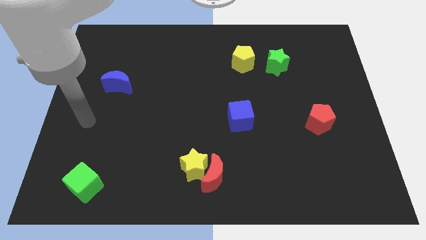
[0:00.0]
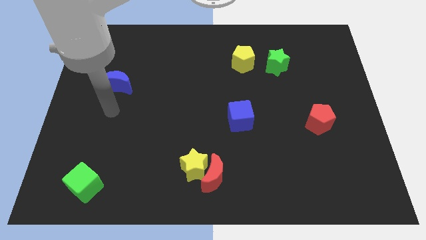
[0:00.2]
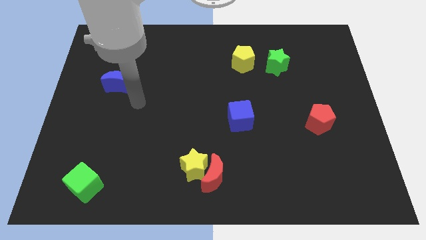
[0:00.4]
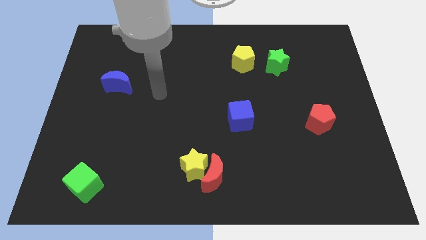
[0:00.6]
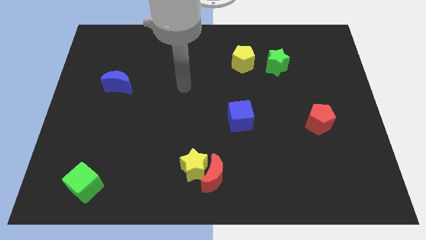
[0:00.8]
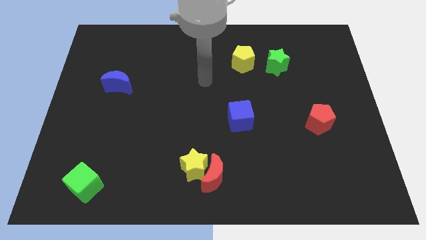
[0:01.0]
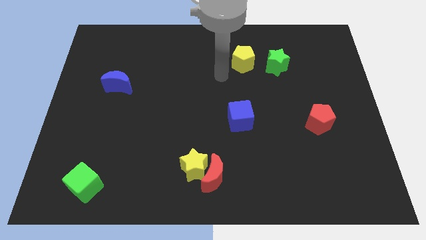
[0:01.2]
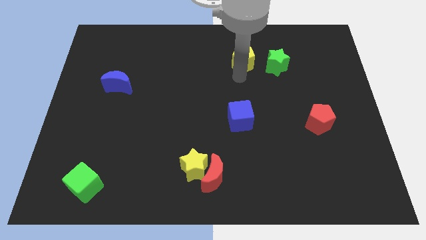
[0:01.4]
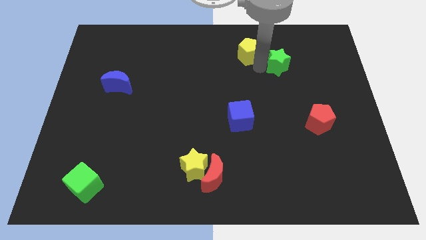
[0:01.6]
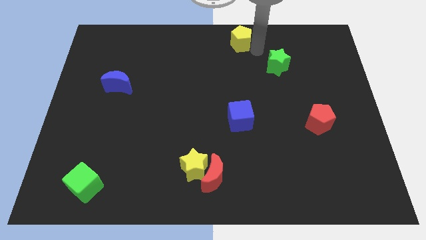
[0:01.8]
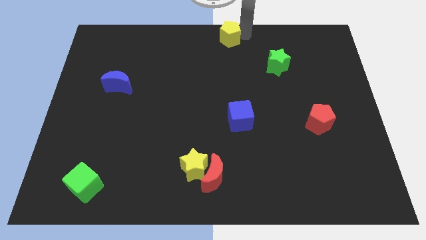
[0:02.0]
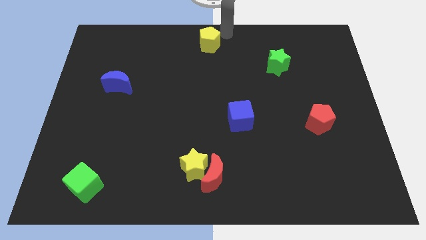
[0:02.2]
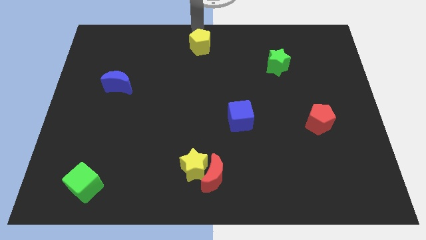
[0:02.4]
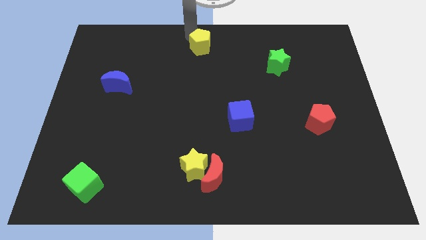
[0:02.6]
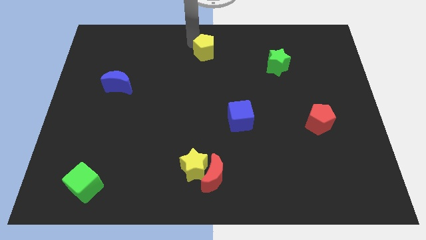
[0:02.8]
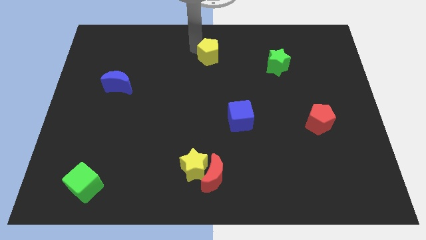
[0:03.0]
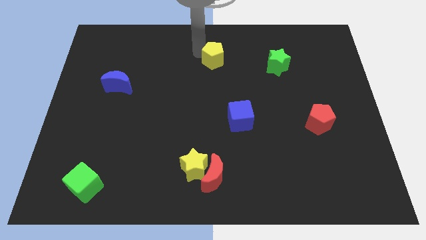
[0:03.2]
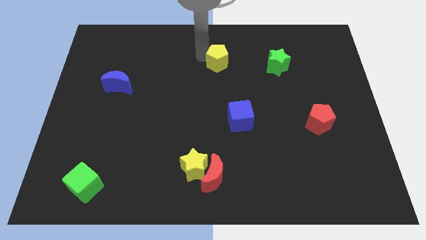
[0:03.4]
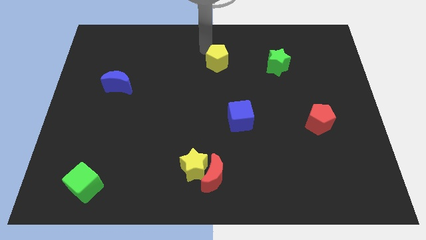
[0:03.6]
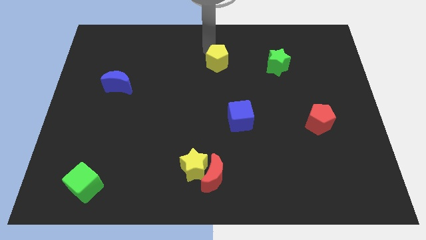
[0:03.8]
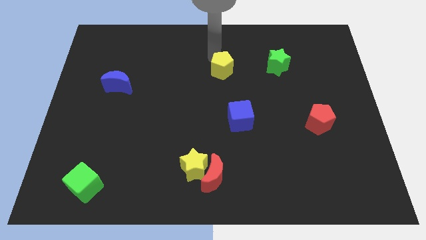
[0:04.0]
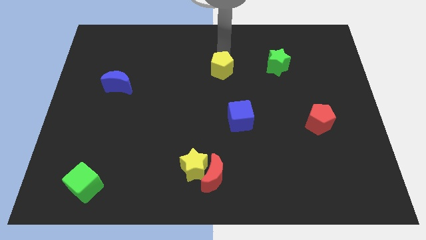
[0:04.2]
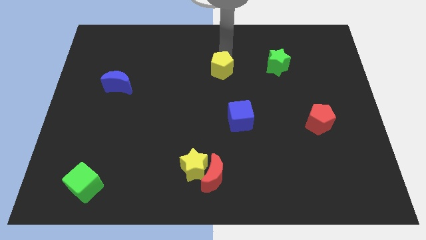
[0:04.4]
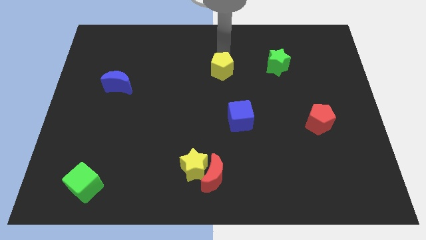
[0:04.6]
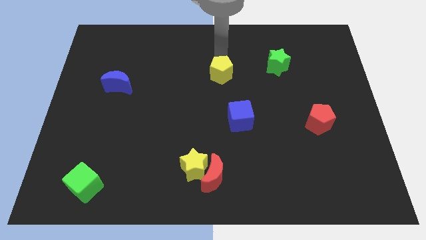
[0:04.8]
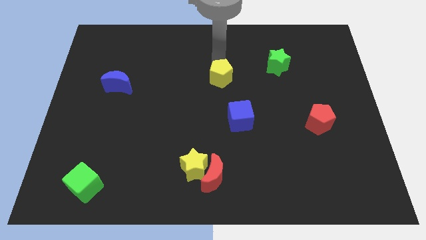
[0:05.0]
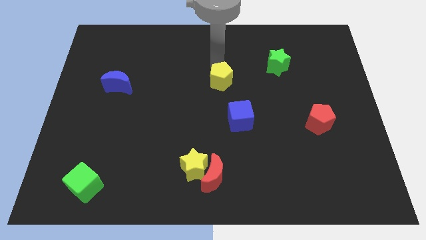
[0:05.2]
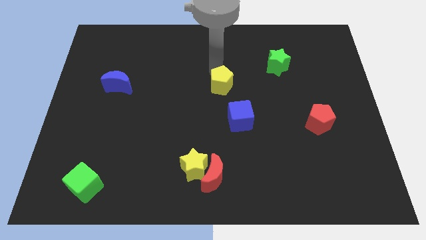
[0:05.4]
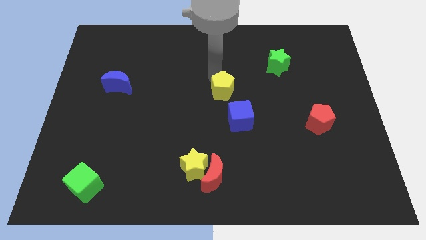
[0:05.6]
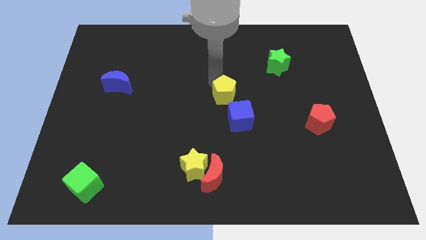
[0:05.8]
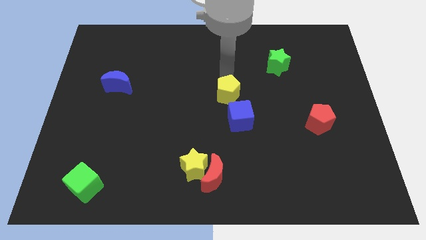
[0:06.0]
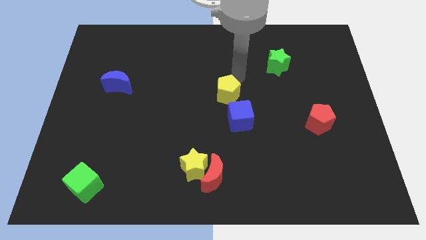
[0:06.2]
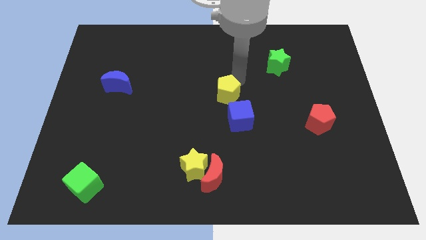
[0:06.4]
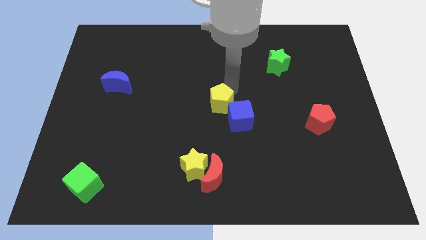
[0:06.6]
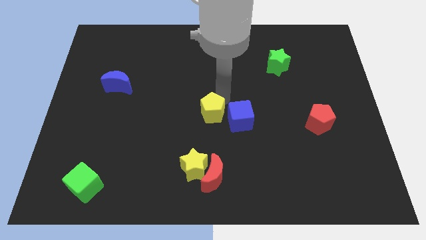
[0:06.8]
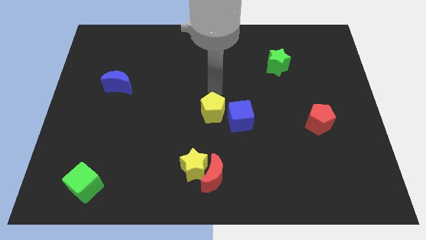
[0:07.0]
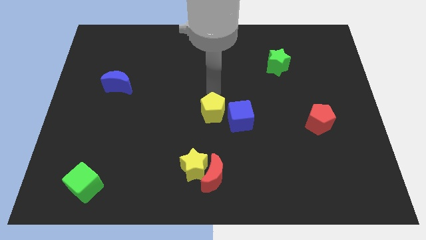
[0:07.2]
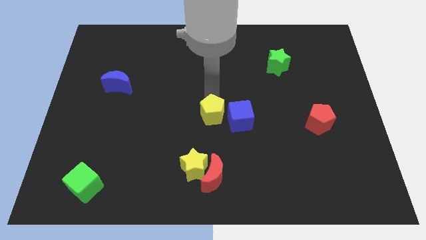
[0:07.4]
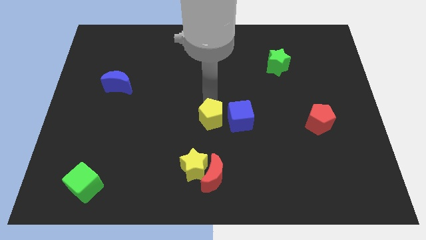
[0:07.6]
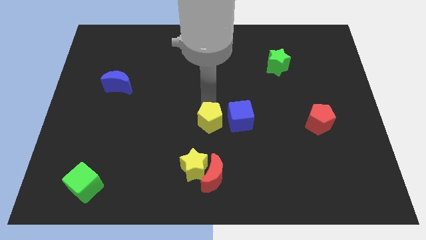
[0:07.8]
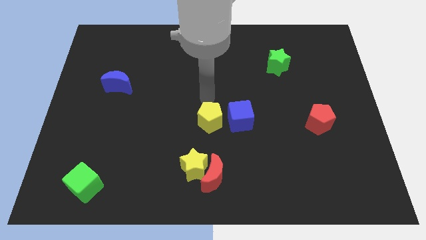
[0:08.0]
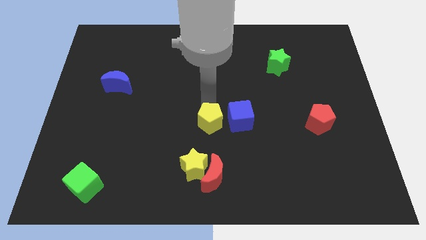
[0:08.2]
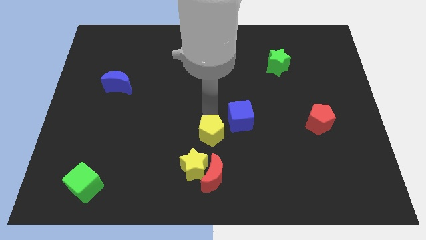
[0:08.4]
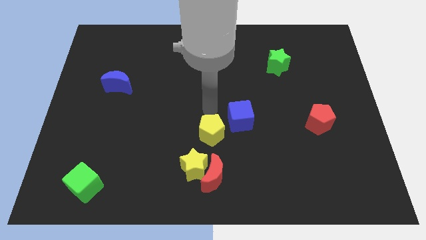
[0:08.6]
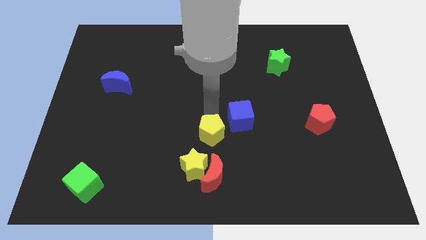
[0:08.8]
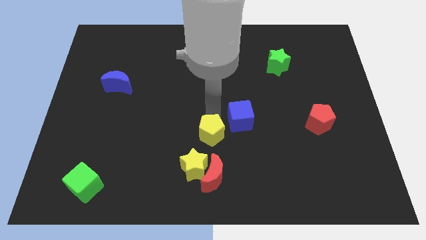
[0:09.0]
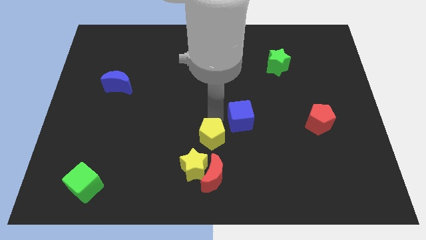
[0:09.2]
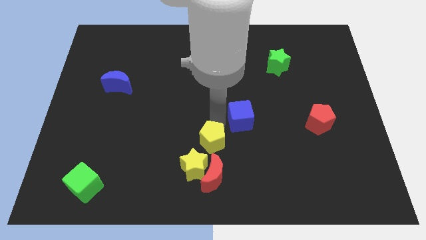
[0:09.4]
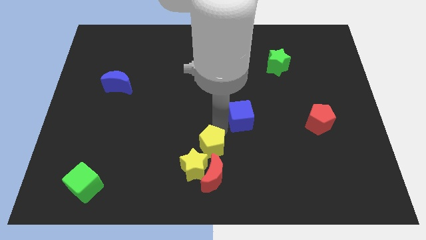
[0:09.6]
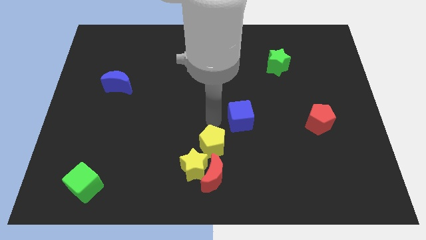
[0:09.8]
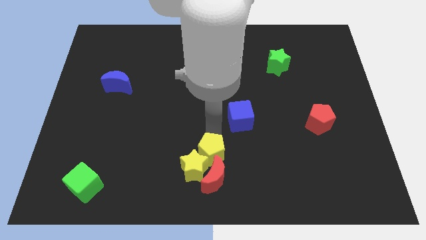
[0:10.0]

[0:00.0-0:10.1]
push the yellow pentagon close to the red moon

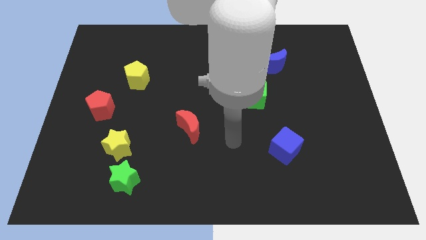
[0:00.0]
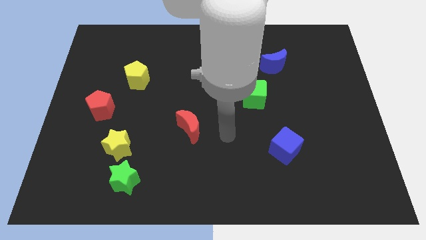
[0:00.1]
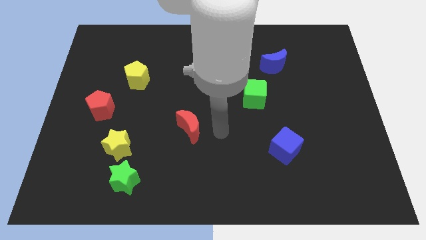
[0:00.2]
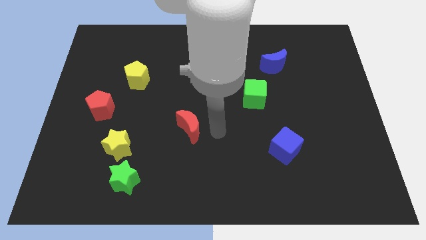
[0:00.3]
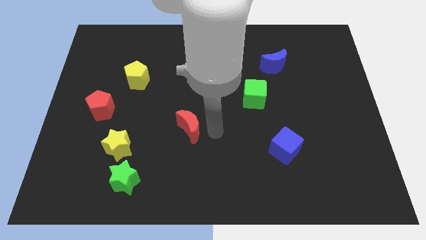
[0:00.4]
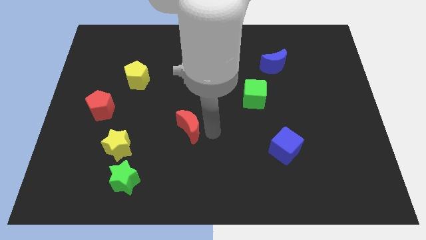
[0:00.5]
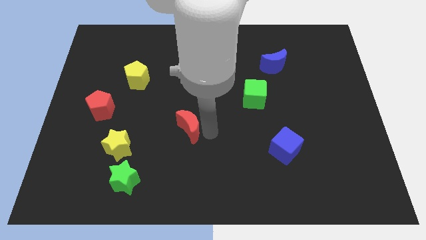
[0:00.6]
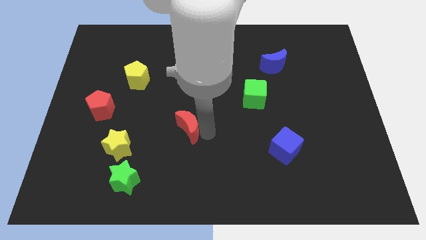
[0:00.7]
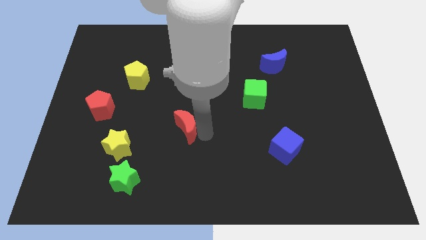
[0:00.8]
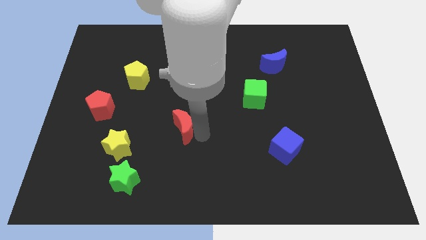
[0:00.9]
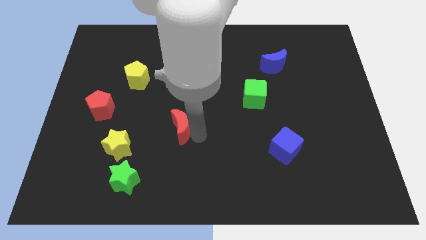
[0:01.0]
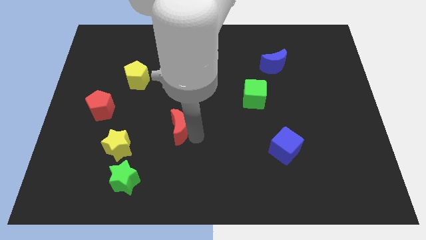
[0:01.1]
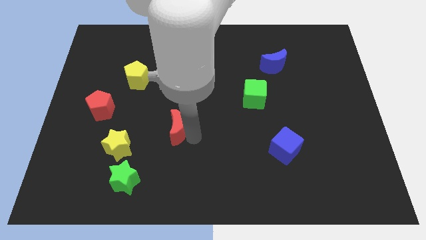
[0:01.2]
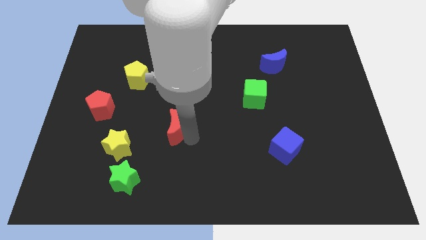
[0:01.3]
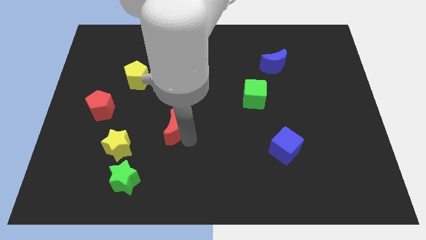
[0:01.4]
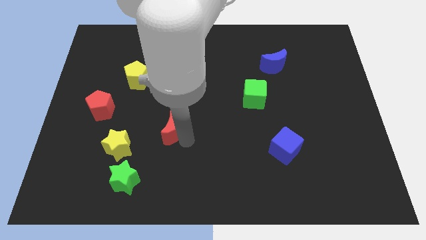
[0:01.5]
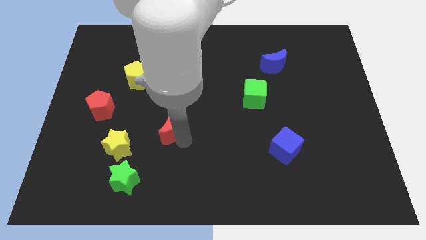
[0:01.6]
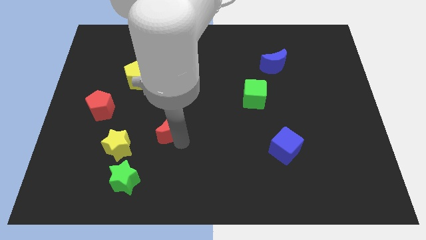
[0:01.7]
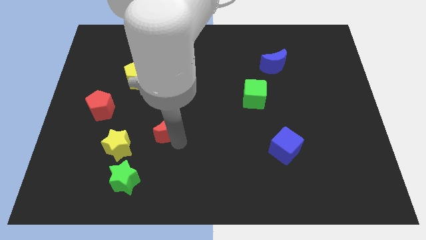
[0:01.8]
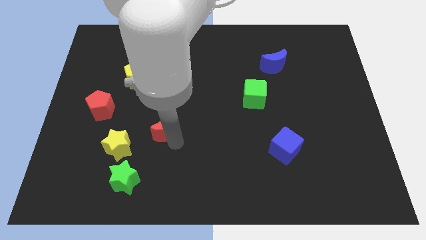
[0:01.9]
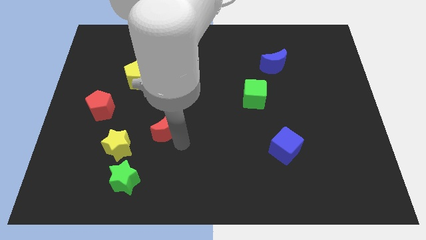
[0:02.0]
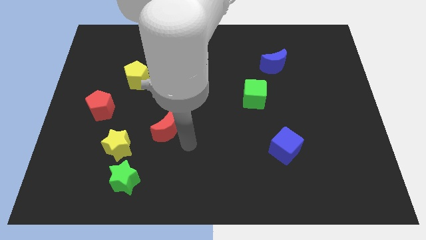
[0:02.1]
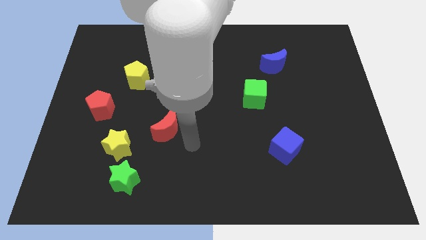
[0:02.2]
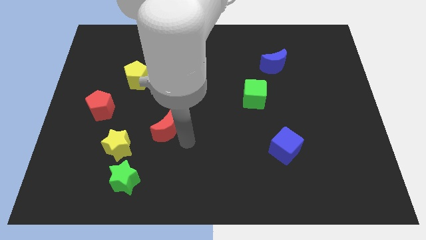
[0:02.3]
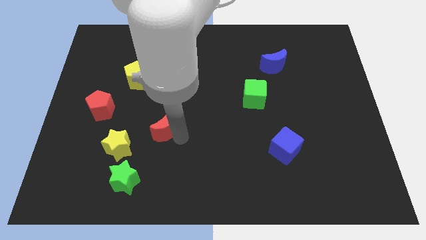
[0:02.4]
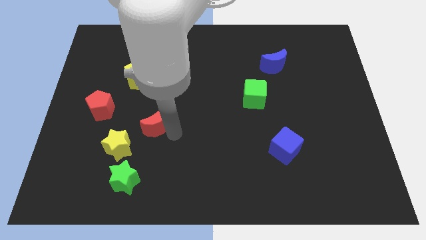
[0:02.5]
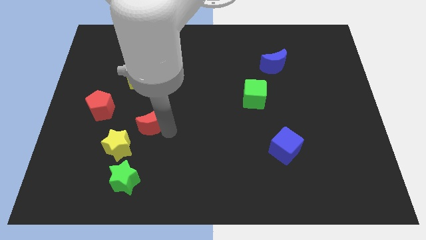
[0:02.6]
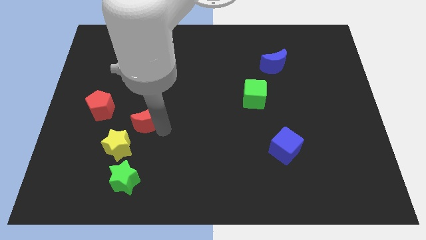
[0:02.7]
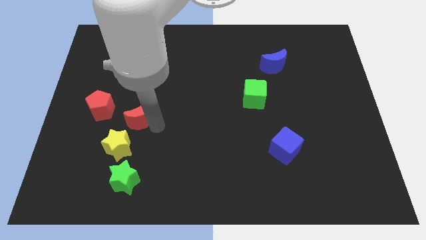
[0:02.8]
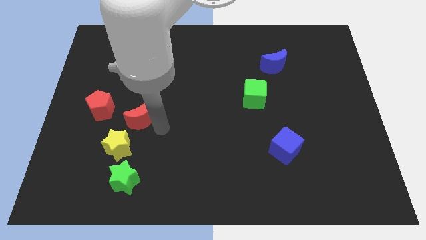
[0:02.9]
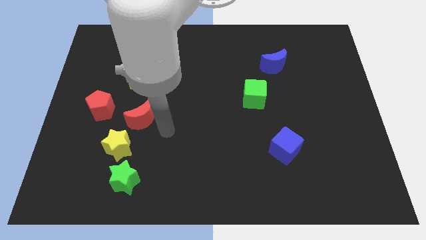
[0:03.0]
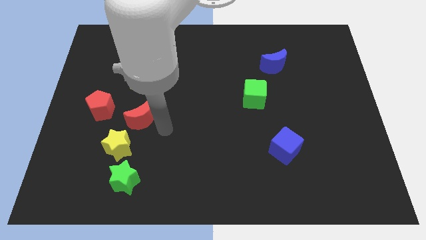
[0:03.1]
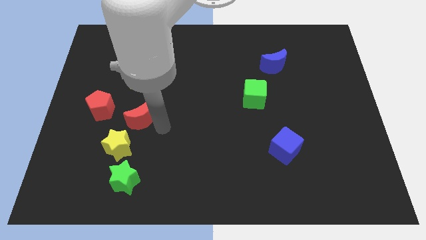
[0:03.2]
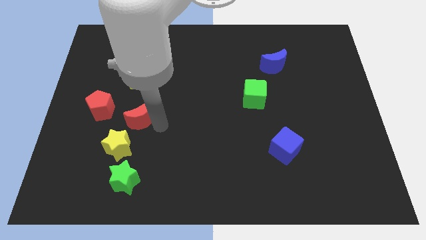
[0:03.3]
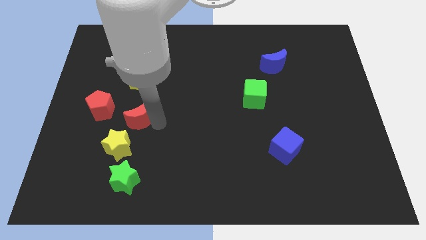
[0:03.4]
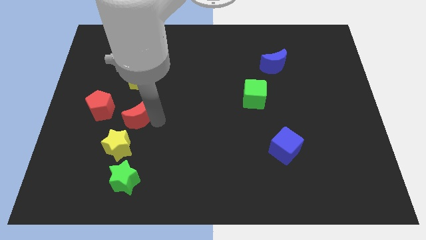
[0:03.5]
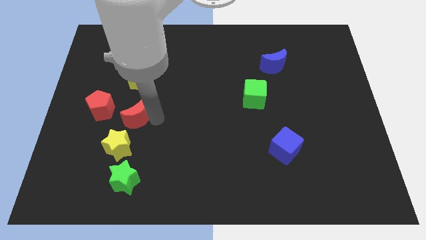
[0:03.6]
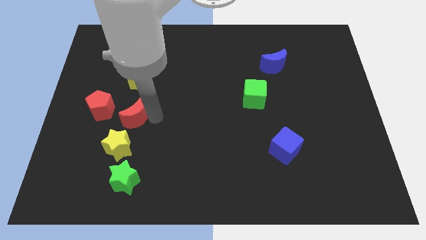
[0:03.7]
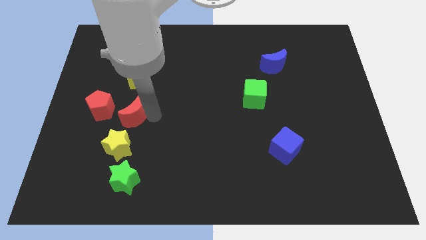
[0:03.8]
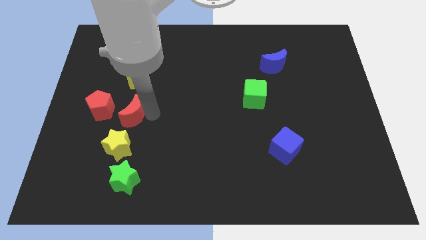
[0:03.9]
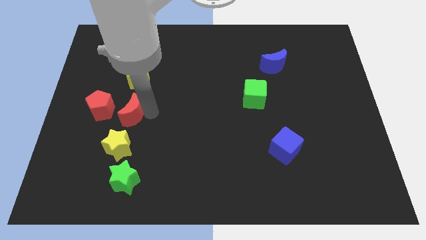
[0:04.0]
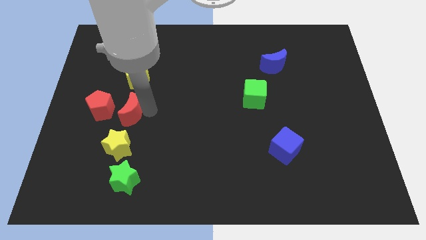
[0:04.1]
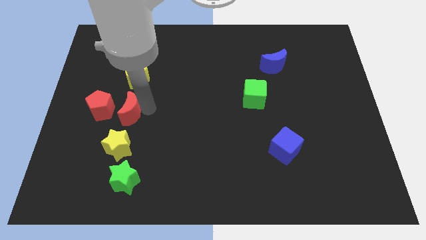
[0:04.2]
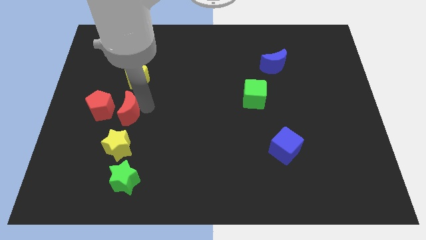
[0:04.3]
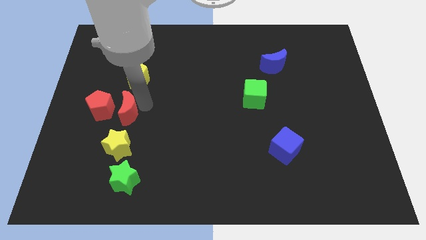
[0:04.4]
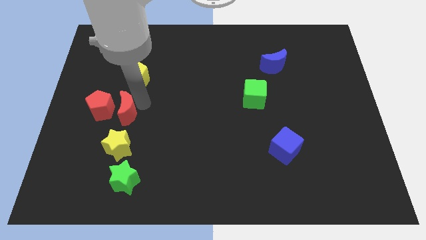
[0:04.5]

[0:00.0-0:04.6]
put the red moon close to the red pentagon
